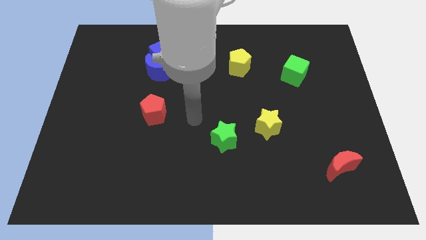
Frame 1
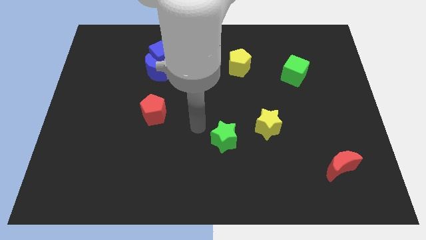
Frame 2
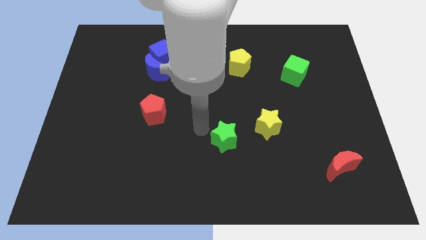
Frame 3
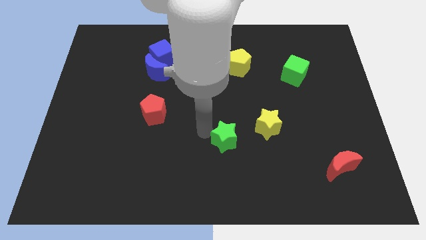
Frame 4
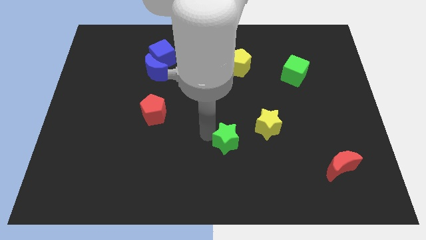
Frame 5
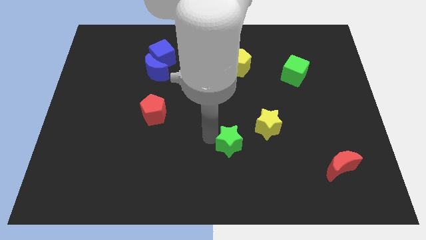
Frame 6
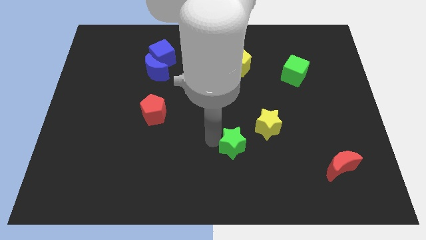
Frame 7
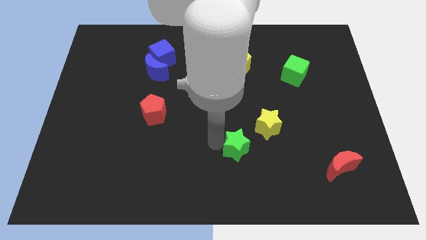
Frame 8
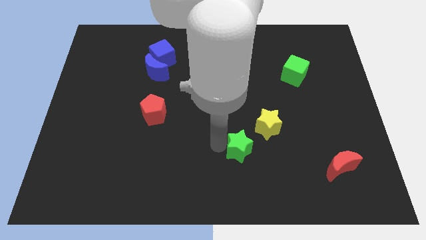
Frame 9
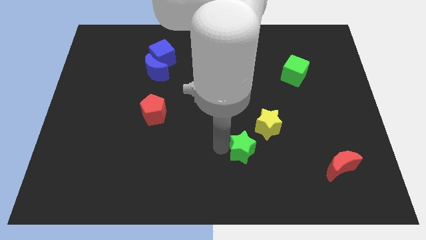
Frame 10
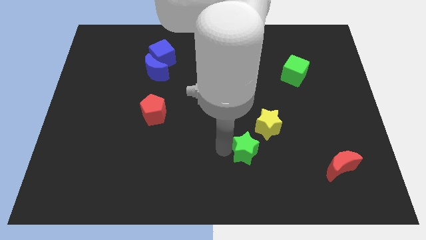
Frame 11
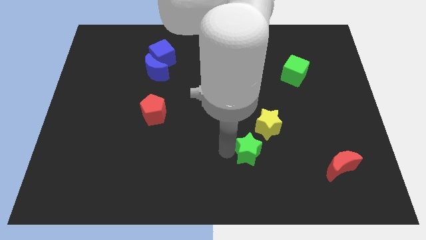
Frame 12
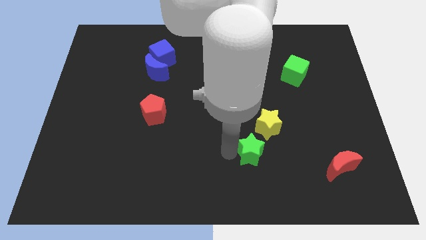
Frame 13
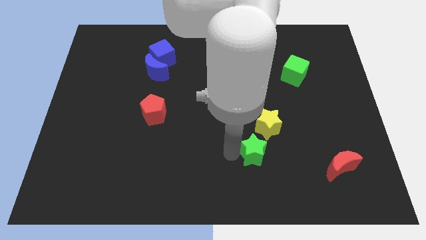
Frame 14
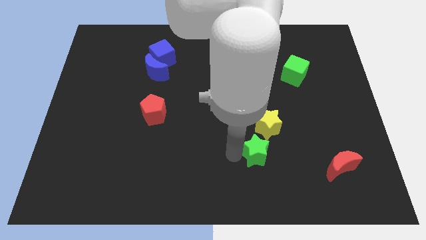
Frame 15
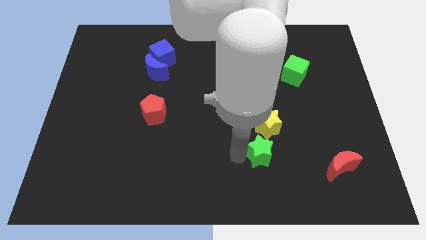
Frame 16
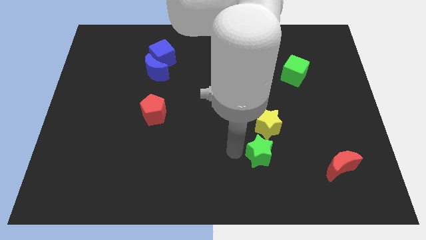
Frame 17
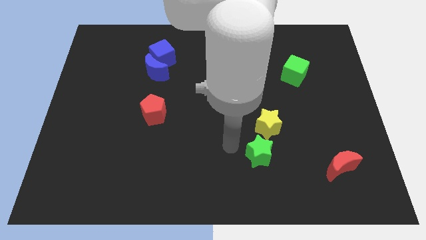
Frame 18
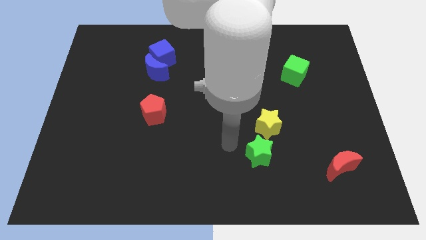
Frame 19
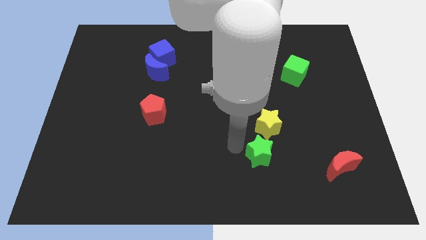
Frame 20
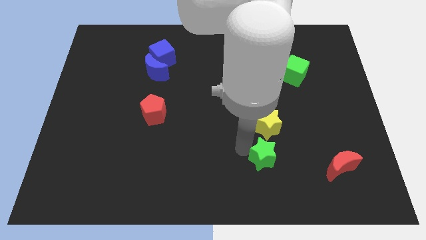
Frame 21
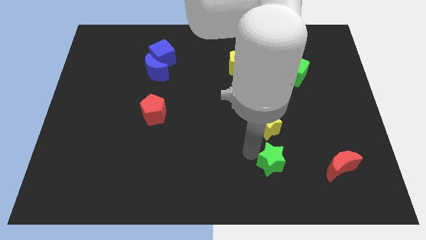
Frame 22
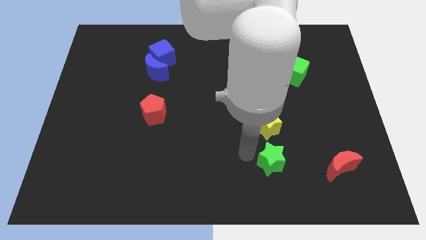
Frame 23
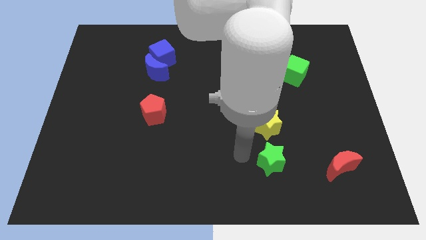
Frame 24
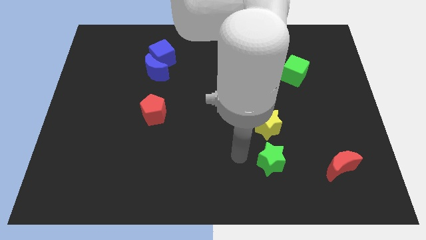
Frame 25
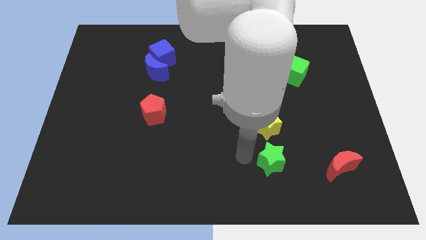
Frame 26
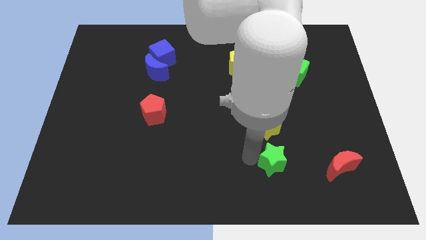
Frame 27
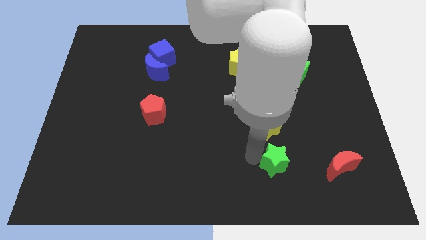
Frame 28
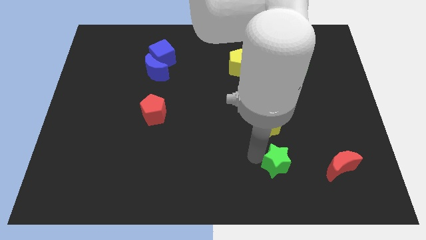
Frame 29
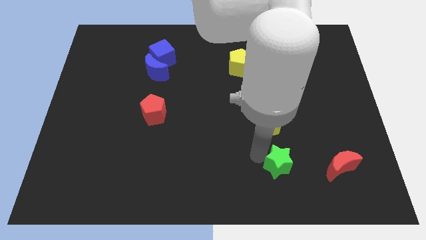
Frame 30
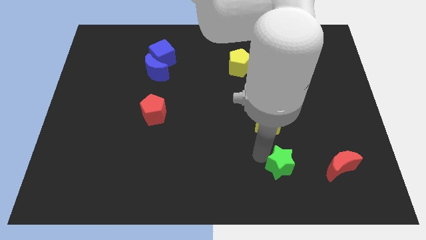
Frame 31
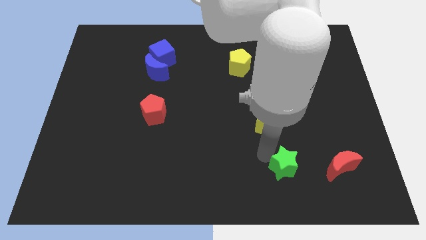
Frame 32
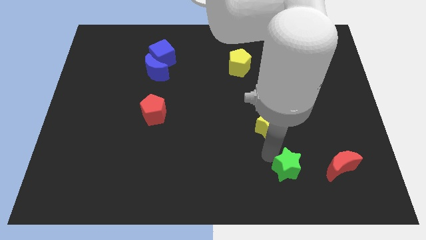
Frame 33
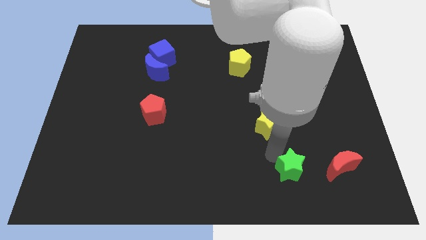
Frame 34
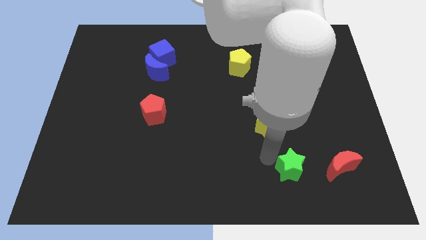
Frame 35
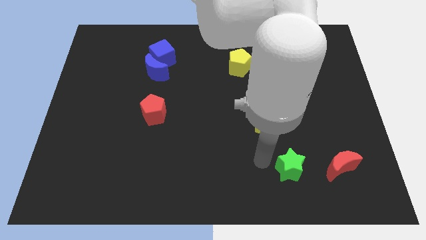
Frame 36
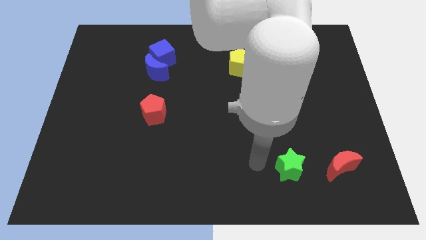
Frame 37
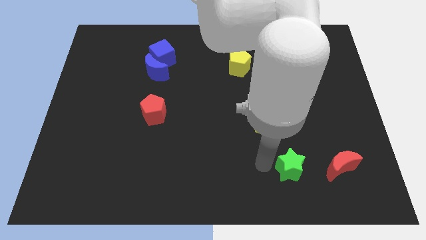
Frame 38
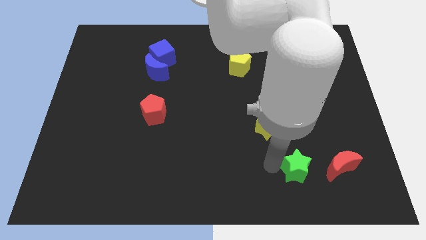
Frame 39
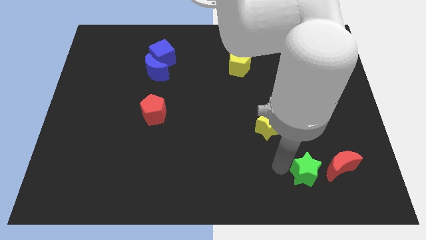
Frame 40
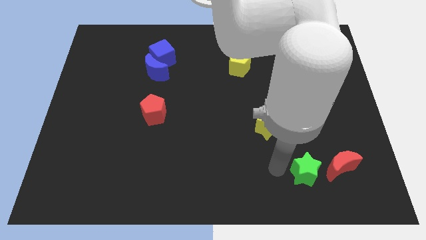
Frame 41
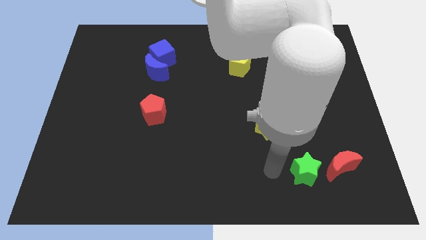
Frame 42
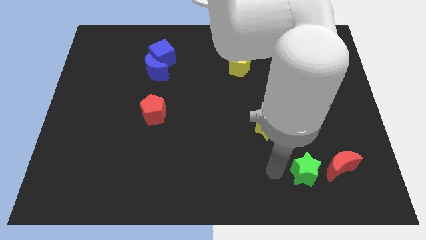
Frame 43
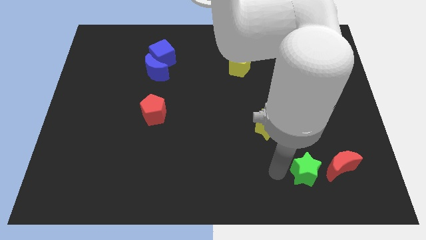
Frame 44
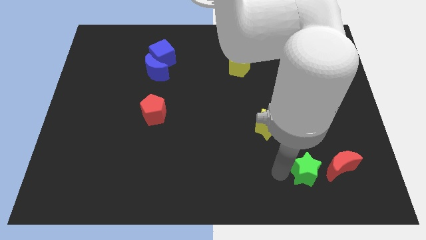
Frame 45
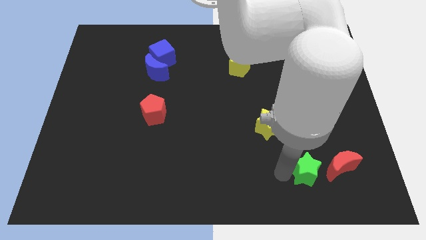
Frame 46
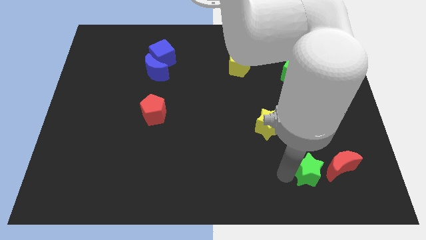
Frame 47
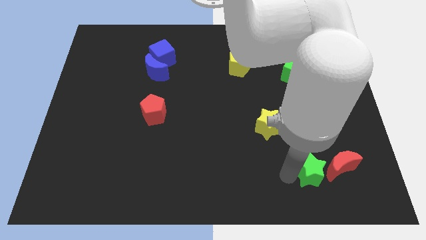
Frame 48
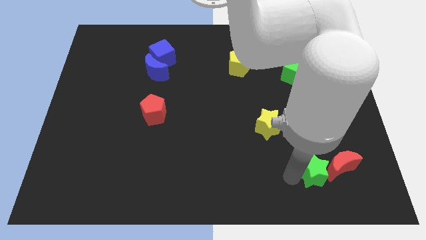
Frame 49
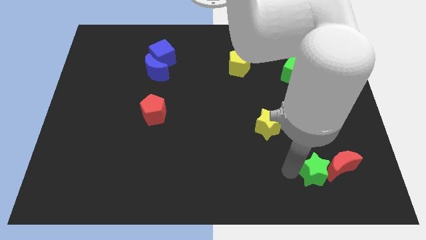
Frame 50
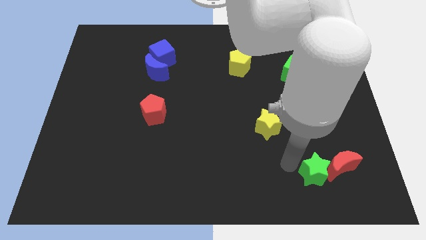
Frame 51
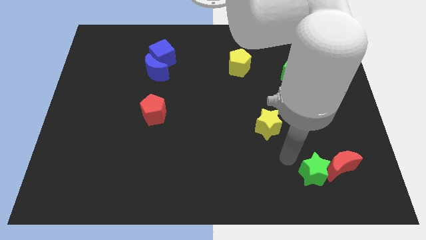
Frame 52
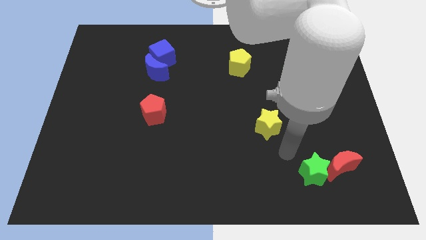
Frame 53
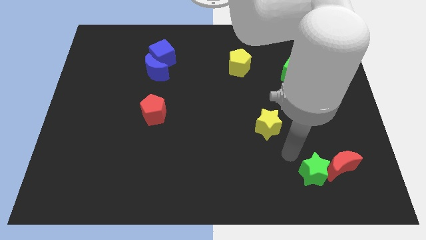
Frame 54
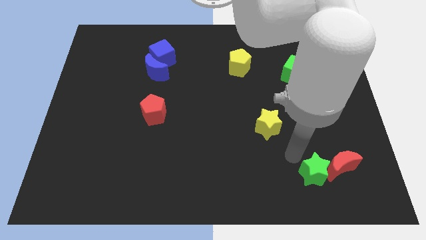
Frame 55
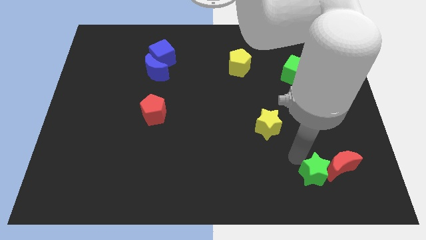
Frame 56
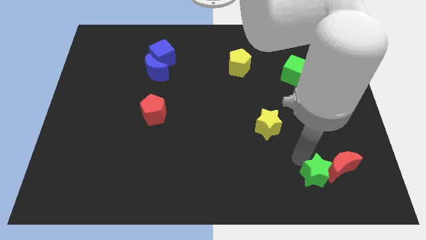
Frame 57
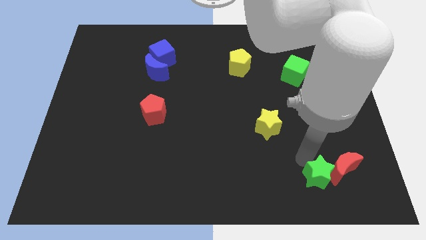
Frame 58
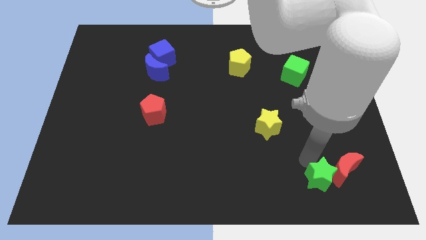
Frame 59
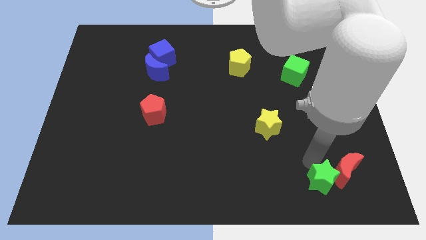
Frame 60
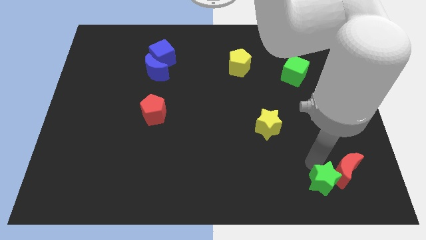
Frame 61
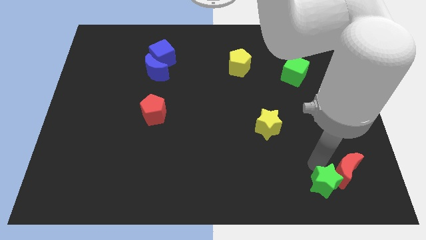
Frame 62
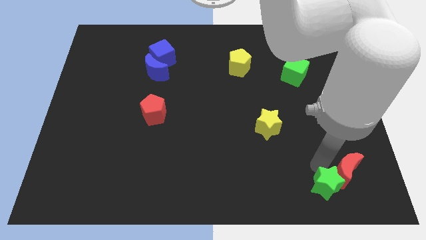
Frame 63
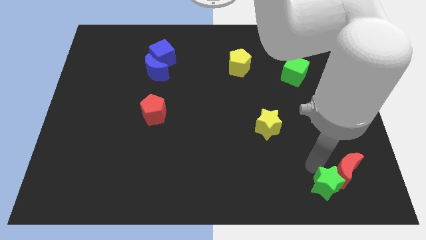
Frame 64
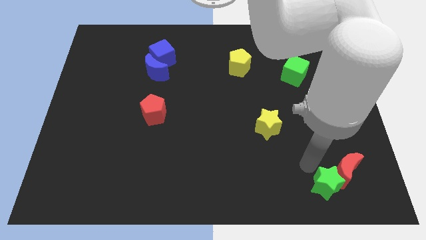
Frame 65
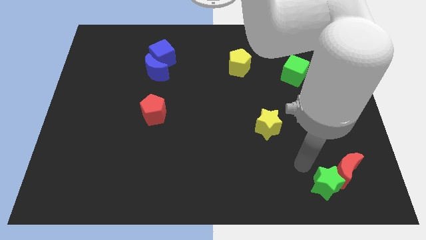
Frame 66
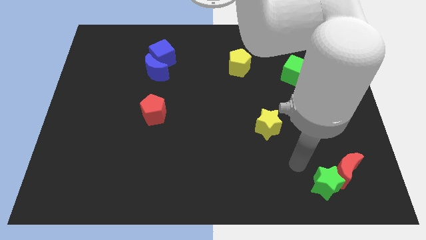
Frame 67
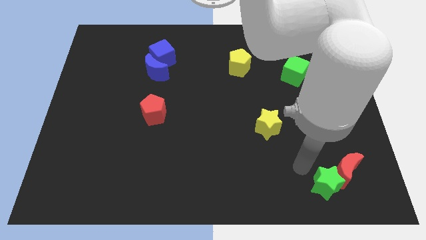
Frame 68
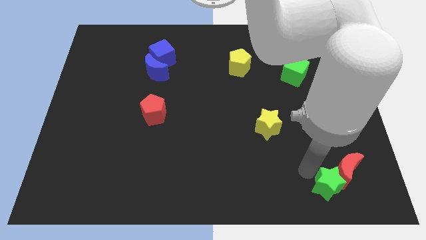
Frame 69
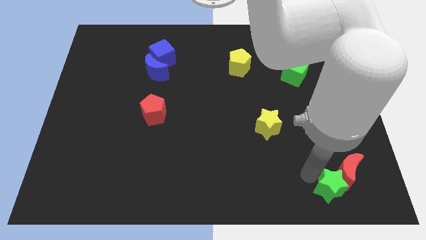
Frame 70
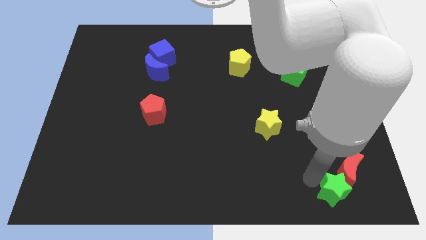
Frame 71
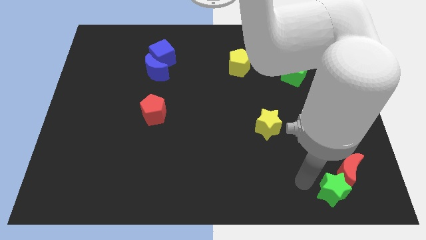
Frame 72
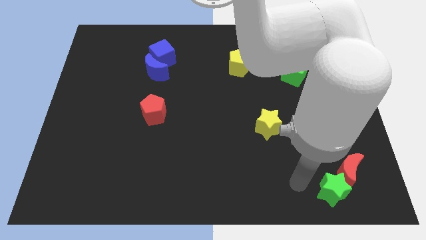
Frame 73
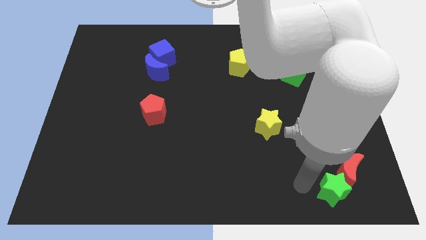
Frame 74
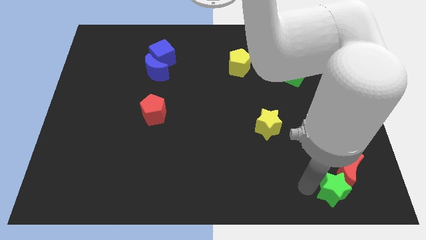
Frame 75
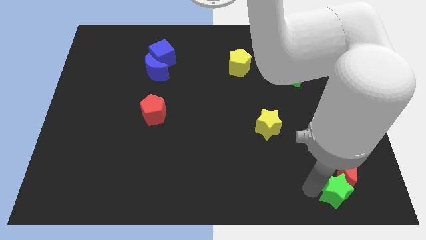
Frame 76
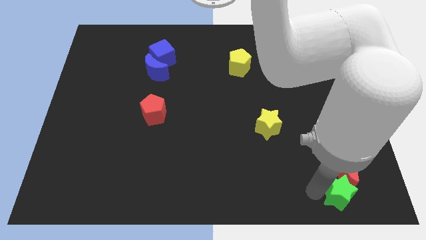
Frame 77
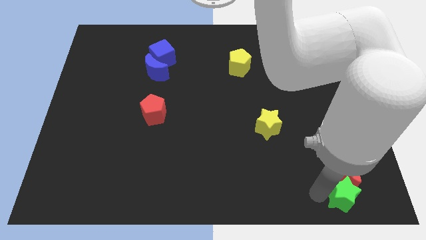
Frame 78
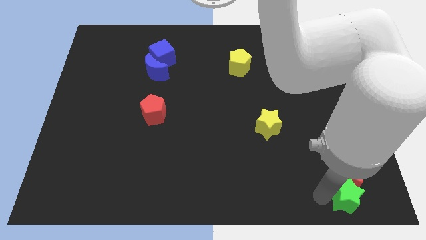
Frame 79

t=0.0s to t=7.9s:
put the green star to the lower right corner

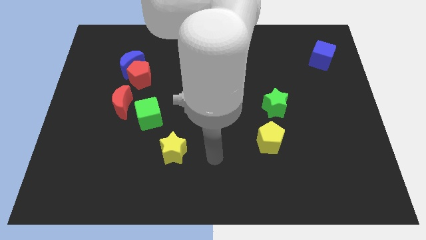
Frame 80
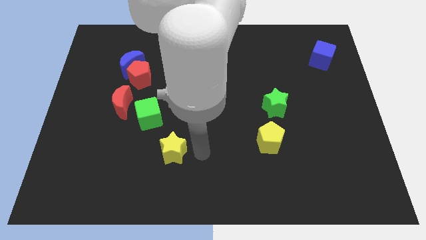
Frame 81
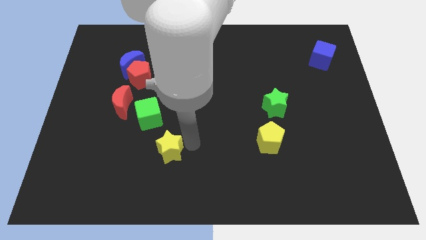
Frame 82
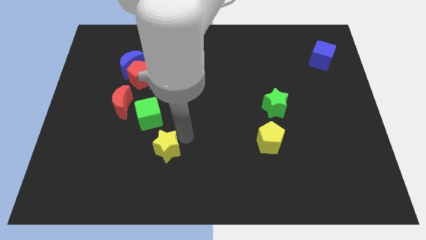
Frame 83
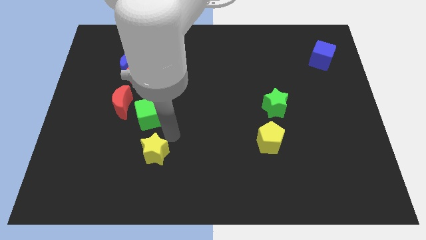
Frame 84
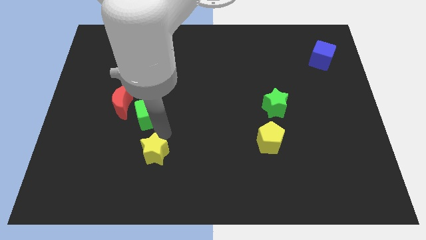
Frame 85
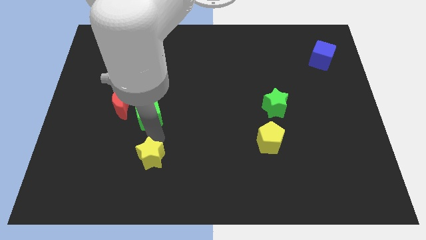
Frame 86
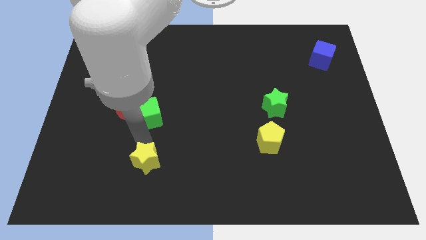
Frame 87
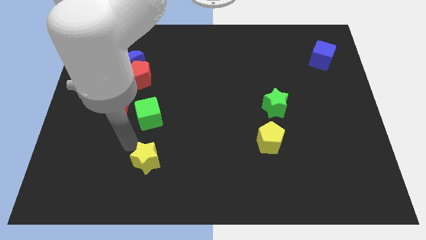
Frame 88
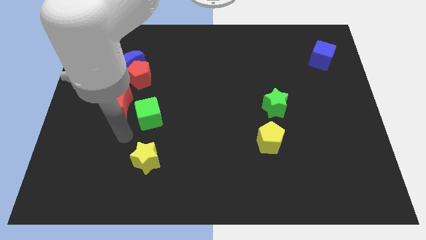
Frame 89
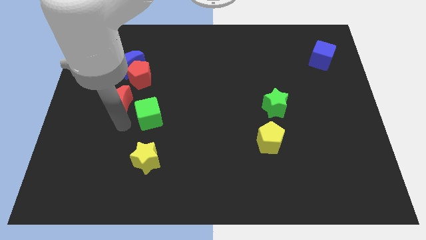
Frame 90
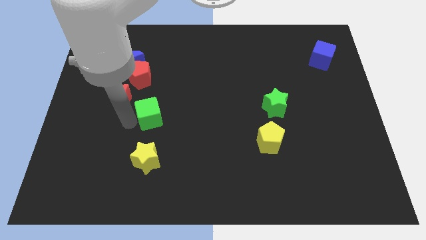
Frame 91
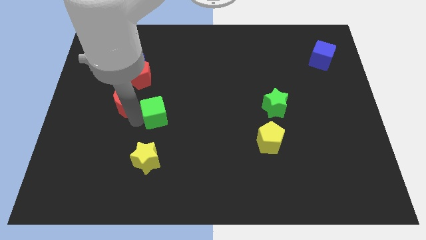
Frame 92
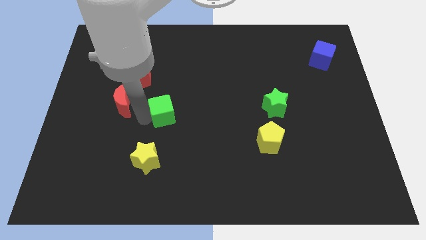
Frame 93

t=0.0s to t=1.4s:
push the green cube to the center of the board
